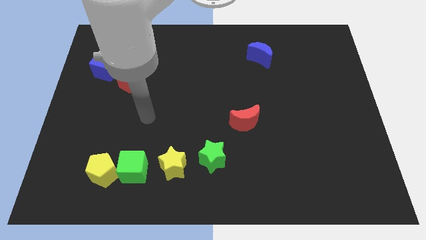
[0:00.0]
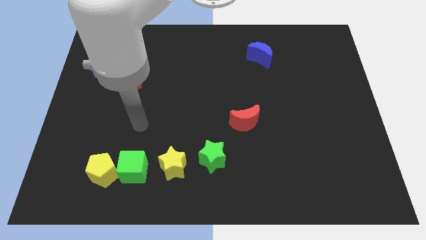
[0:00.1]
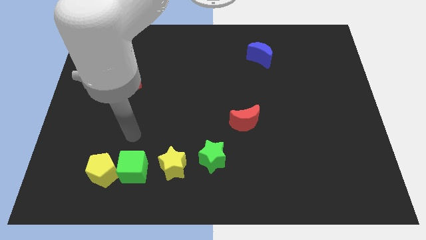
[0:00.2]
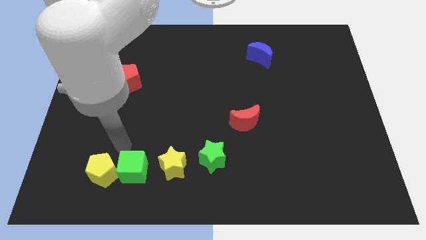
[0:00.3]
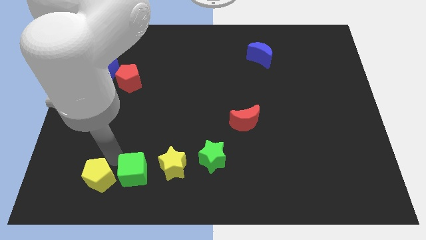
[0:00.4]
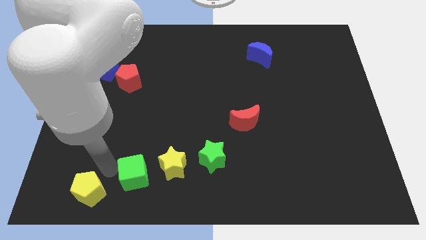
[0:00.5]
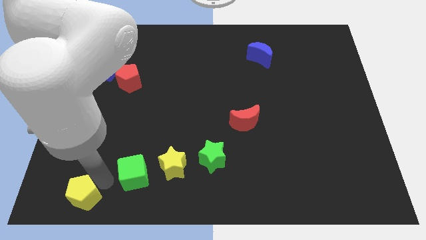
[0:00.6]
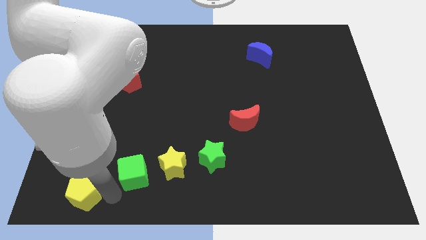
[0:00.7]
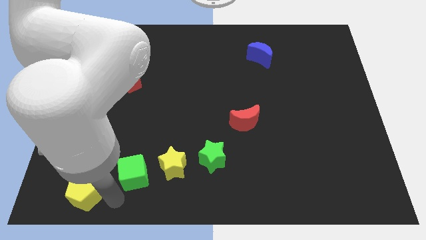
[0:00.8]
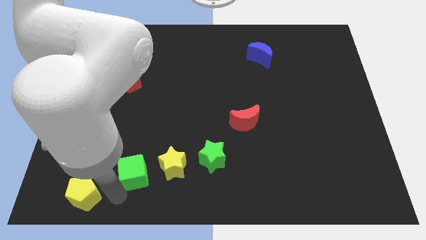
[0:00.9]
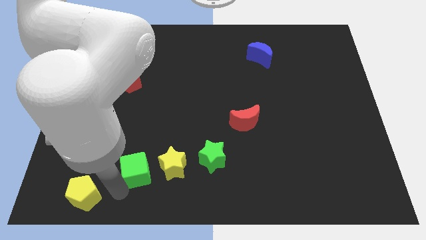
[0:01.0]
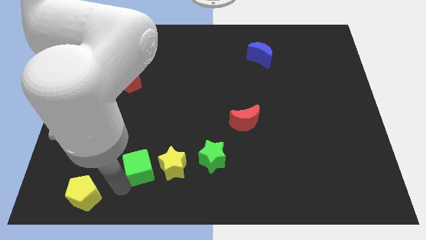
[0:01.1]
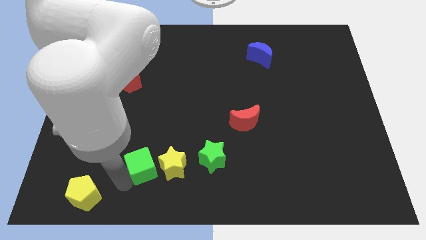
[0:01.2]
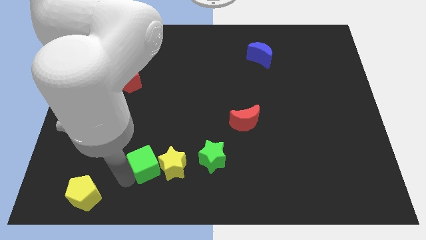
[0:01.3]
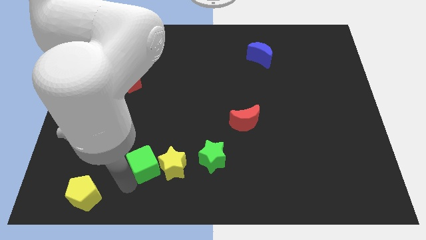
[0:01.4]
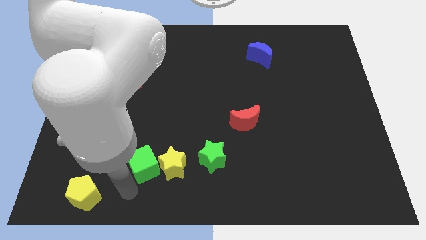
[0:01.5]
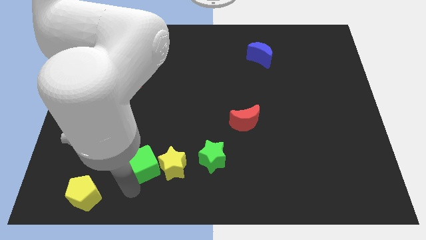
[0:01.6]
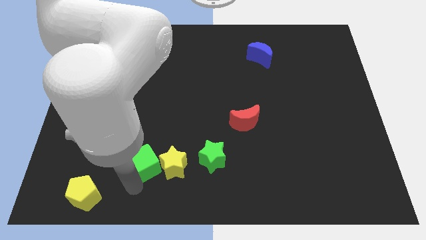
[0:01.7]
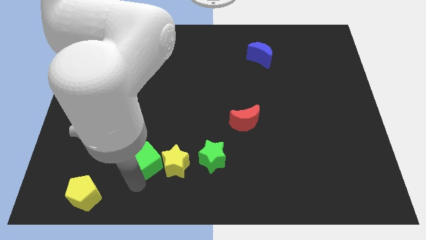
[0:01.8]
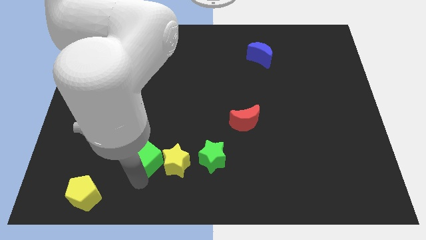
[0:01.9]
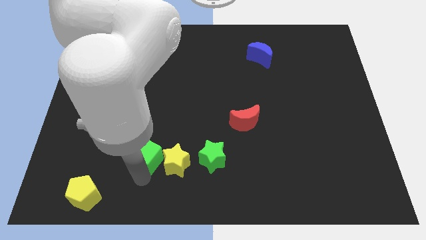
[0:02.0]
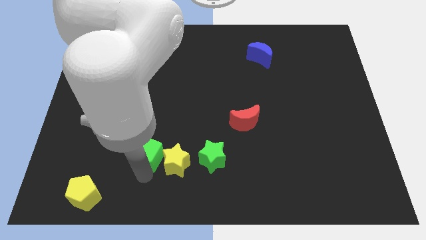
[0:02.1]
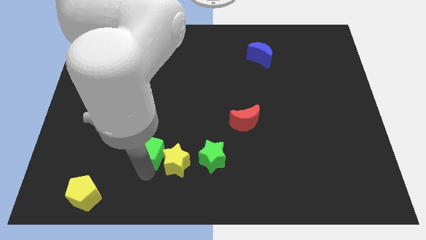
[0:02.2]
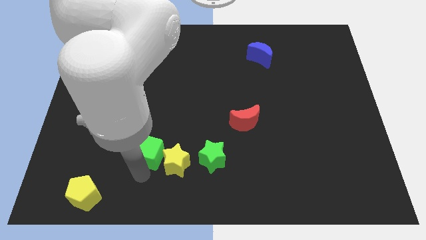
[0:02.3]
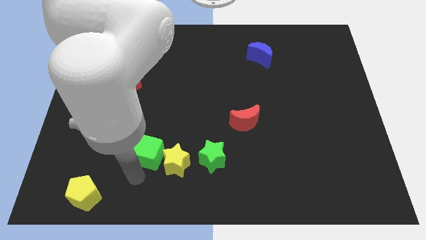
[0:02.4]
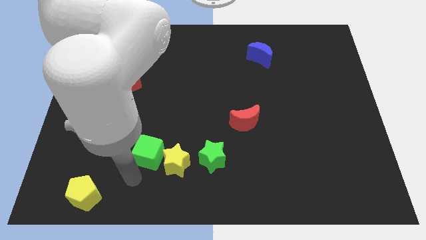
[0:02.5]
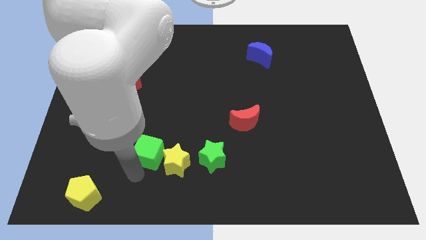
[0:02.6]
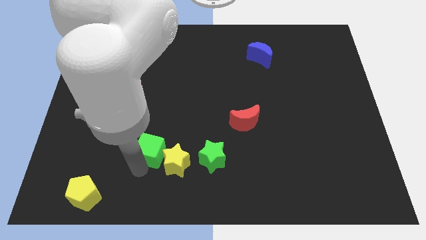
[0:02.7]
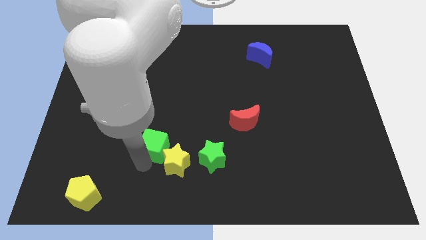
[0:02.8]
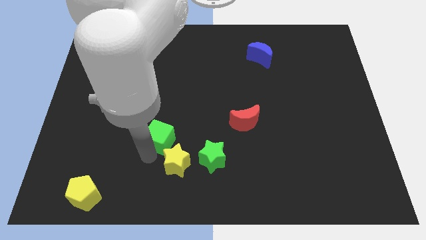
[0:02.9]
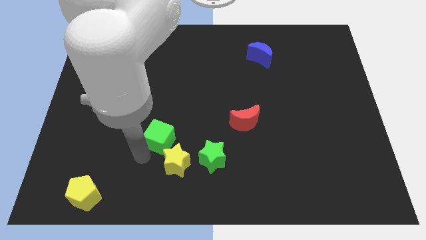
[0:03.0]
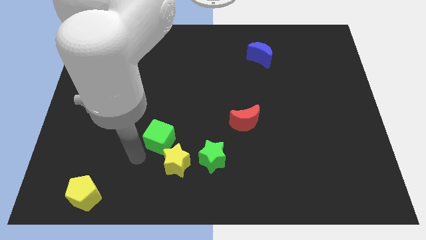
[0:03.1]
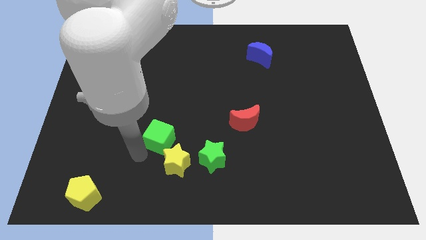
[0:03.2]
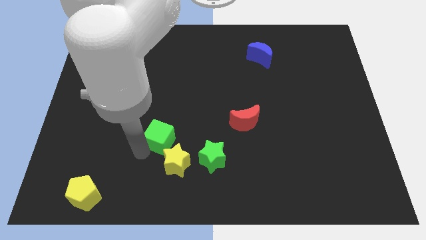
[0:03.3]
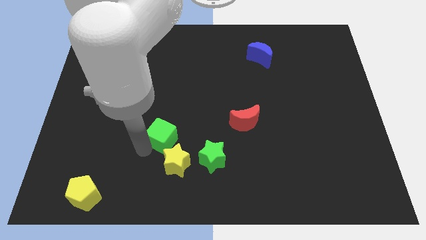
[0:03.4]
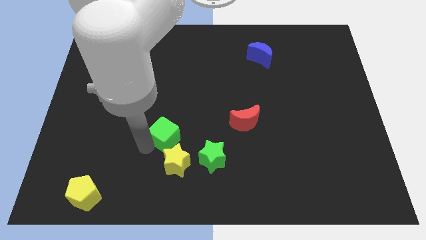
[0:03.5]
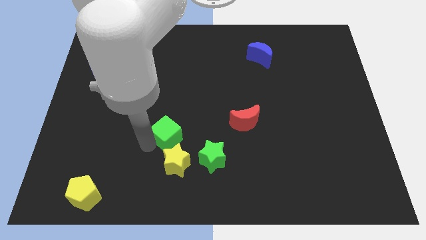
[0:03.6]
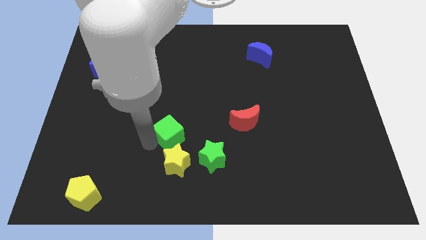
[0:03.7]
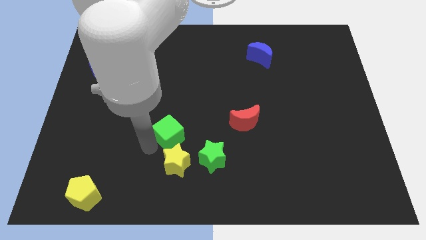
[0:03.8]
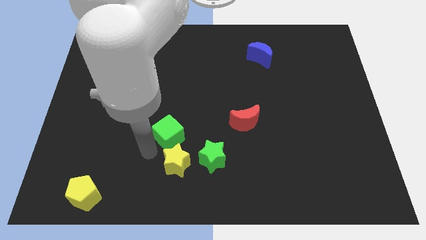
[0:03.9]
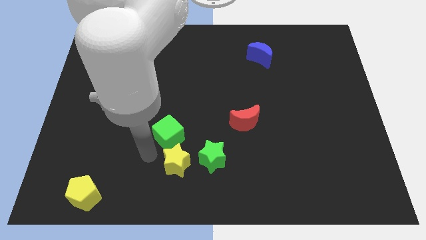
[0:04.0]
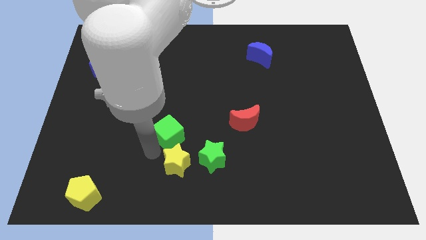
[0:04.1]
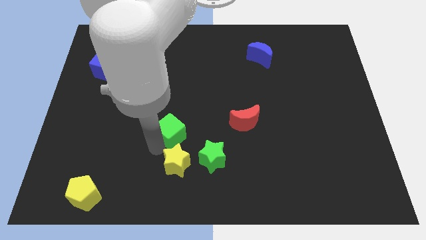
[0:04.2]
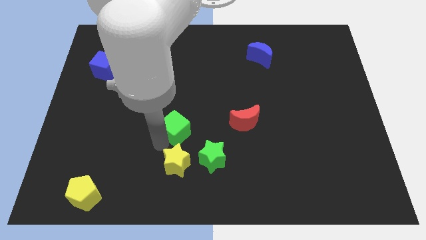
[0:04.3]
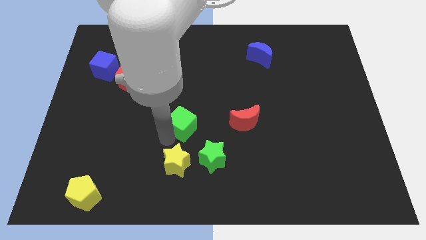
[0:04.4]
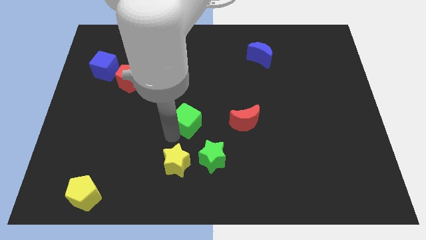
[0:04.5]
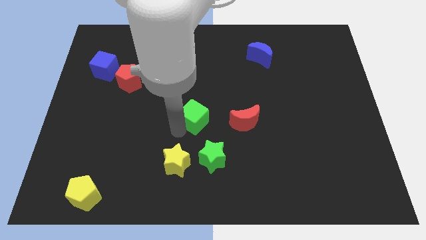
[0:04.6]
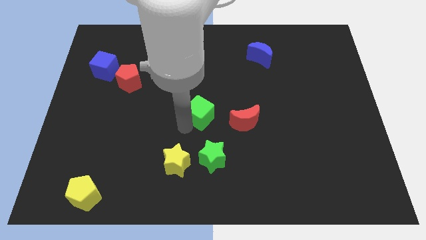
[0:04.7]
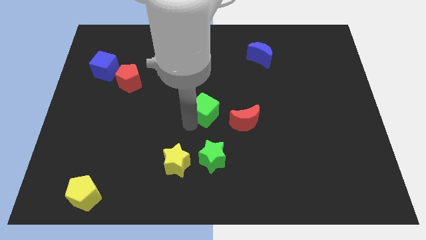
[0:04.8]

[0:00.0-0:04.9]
slide the green cube upwards and right

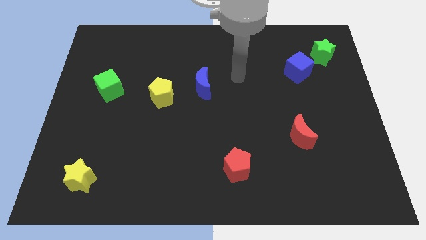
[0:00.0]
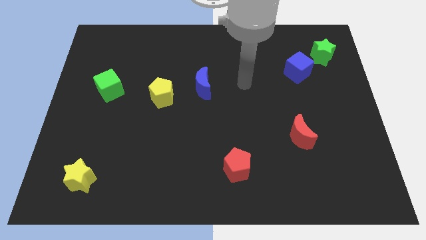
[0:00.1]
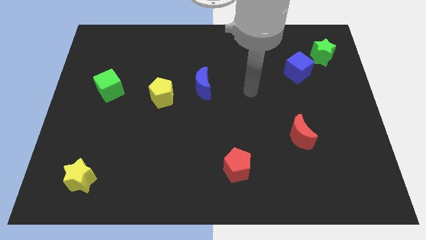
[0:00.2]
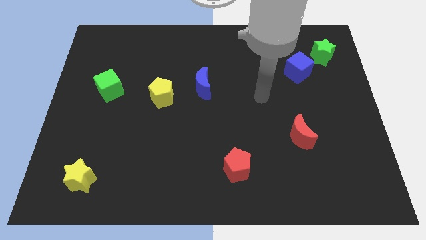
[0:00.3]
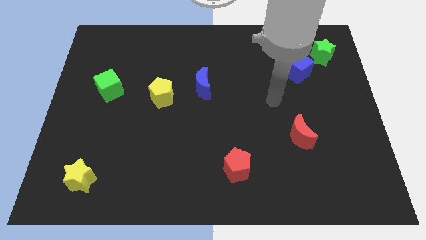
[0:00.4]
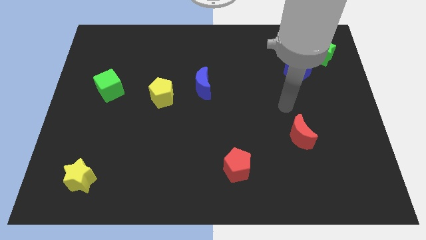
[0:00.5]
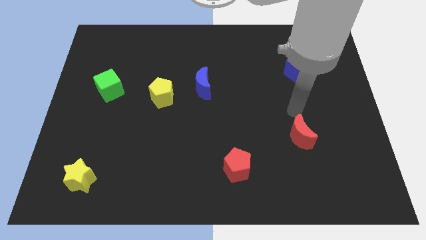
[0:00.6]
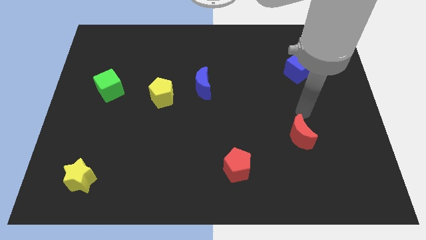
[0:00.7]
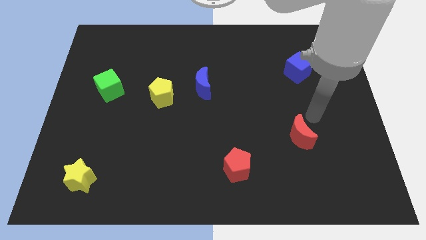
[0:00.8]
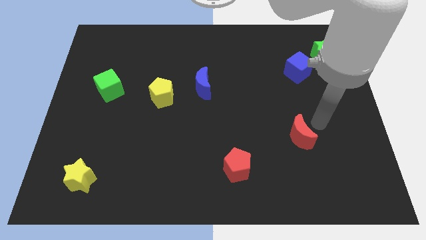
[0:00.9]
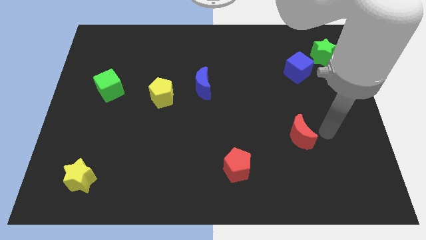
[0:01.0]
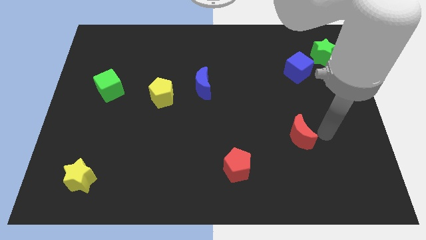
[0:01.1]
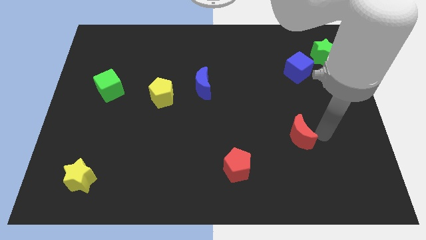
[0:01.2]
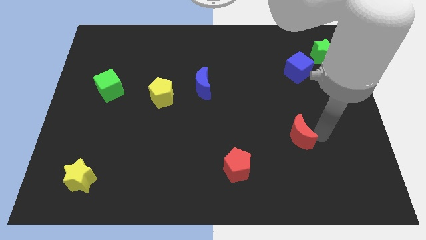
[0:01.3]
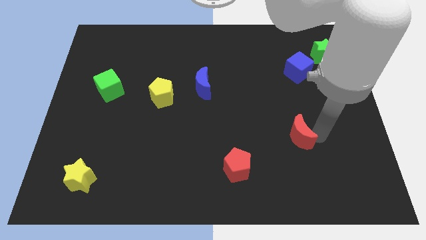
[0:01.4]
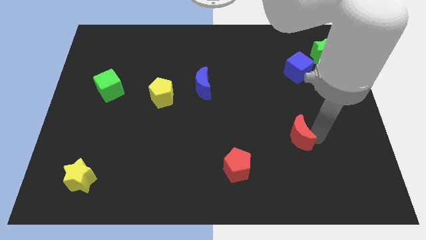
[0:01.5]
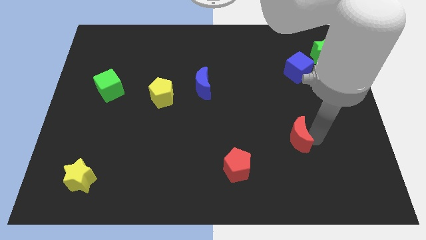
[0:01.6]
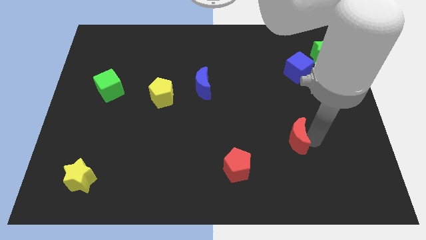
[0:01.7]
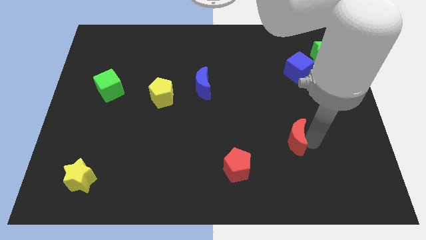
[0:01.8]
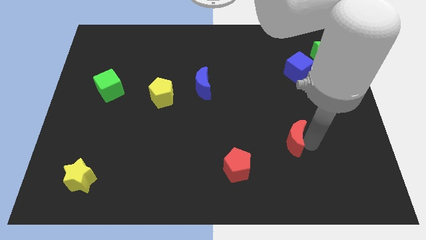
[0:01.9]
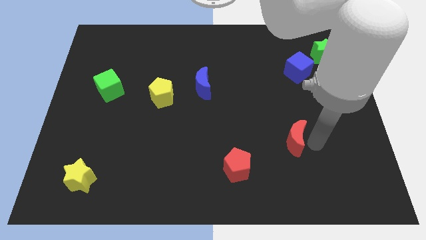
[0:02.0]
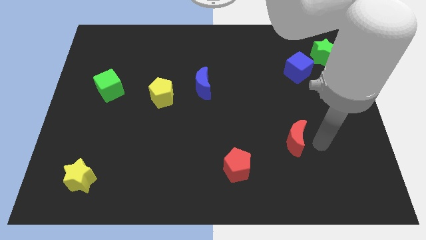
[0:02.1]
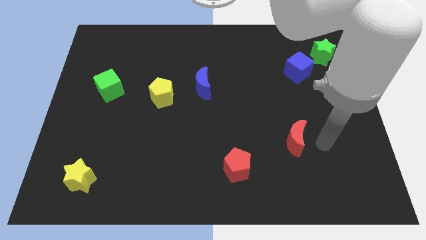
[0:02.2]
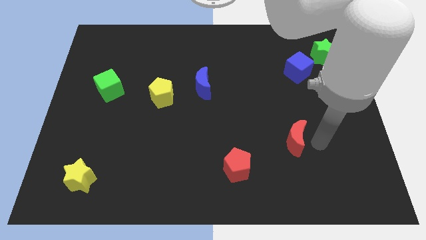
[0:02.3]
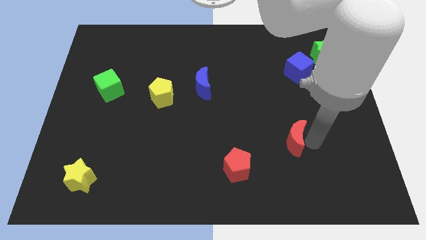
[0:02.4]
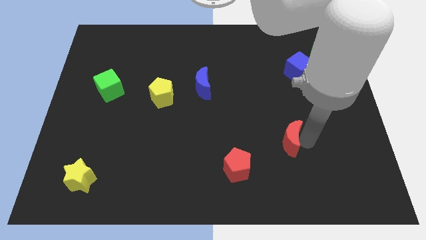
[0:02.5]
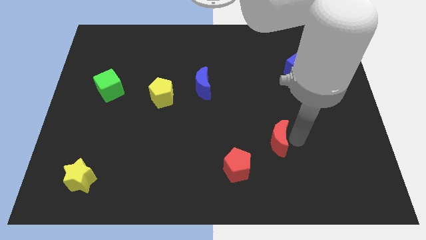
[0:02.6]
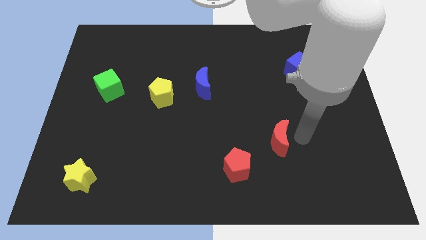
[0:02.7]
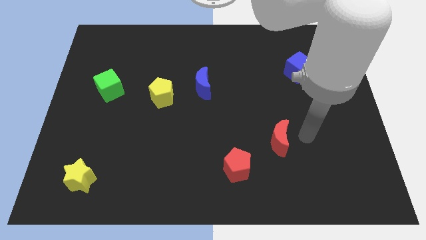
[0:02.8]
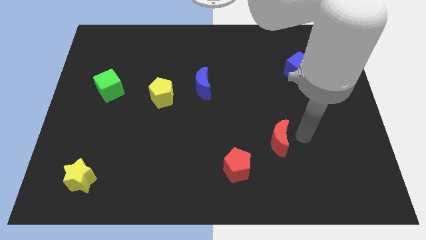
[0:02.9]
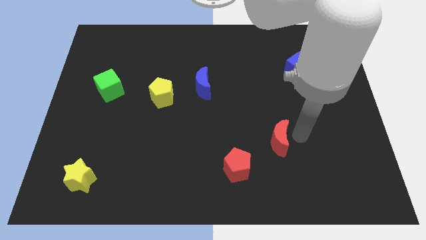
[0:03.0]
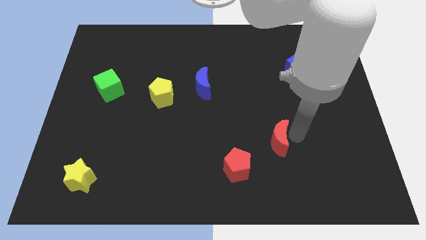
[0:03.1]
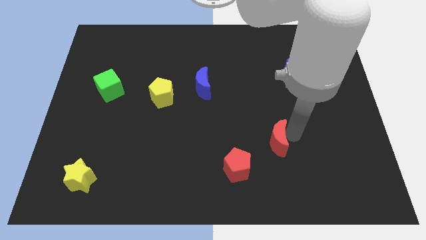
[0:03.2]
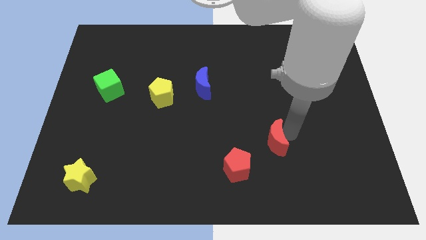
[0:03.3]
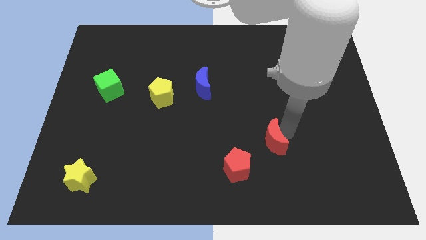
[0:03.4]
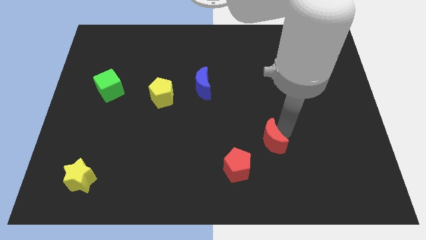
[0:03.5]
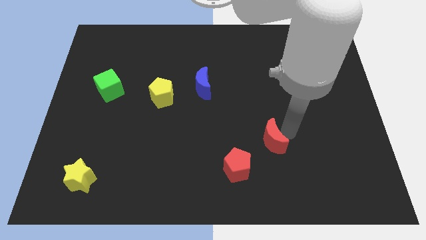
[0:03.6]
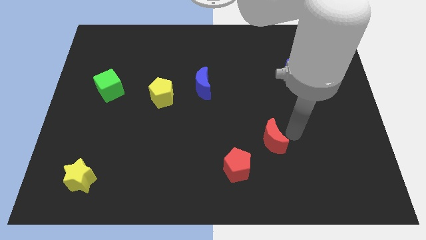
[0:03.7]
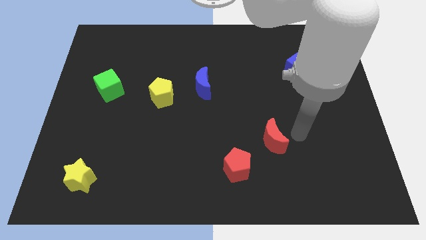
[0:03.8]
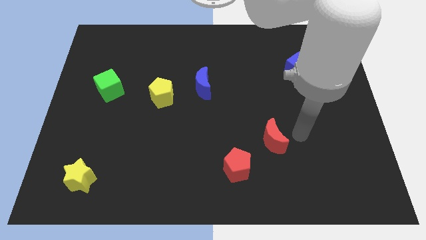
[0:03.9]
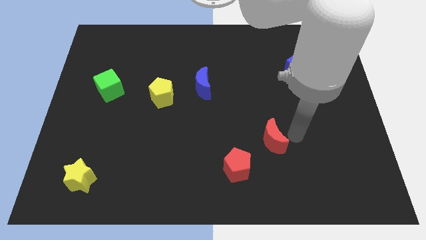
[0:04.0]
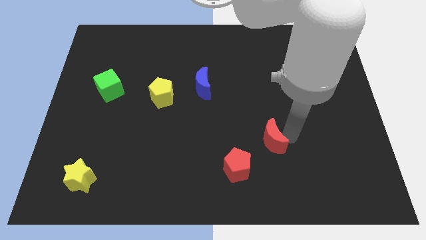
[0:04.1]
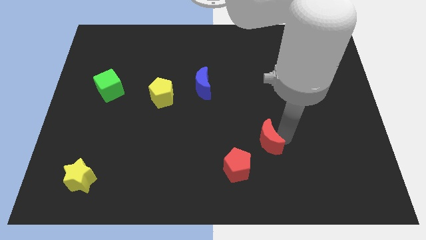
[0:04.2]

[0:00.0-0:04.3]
slightly slide the red moon left
